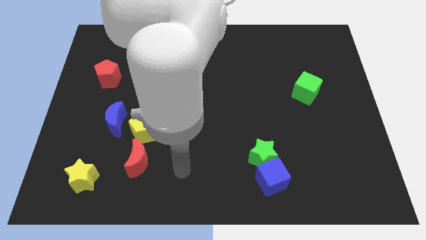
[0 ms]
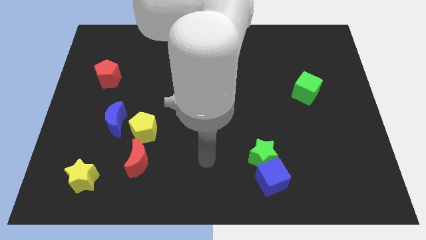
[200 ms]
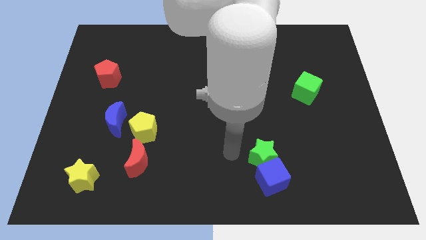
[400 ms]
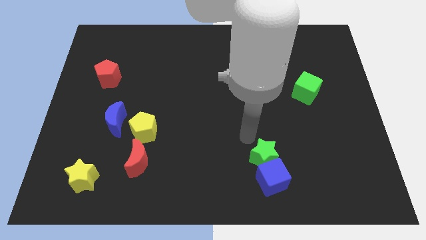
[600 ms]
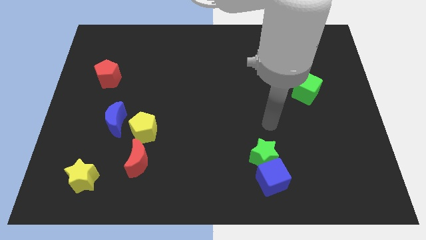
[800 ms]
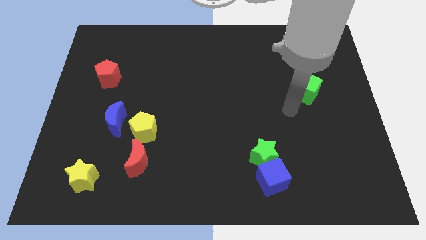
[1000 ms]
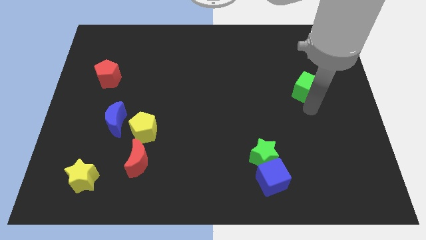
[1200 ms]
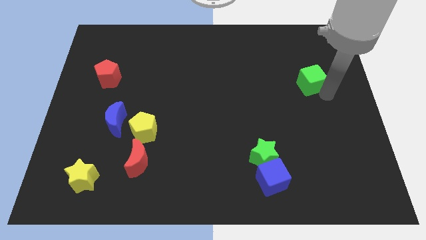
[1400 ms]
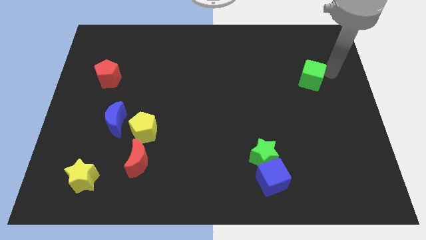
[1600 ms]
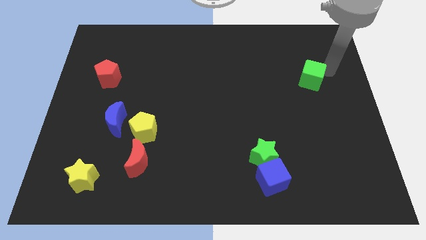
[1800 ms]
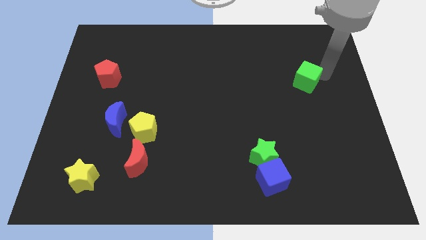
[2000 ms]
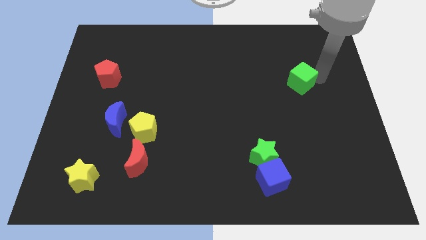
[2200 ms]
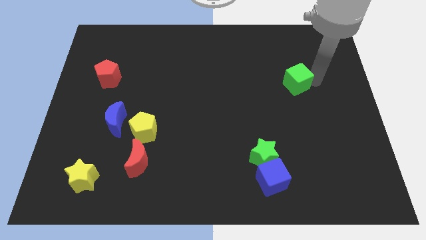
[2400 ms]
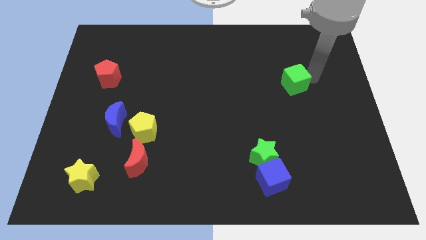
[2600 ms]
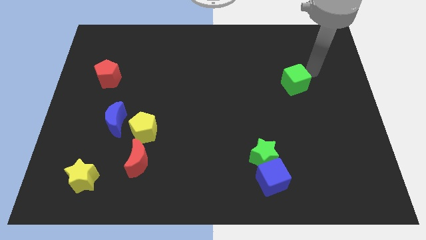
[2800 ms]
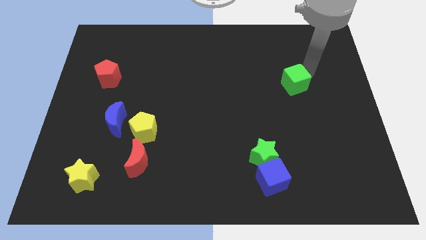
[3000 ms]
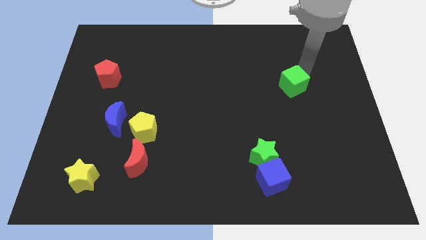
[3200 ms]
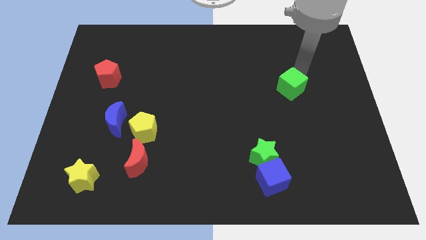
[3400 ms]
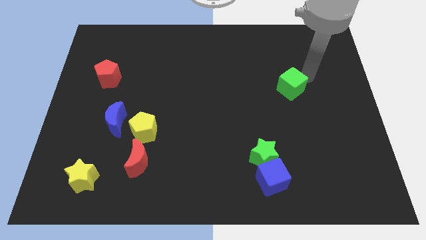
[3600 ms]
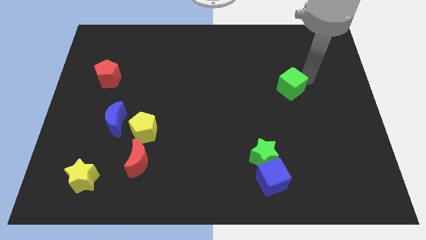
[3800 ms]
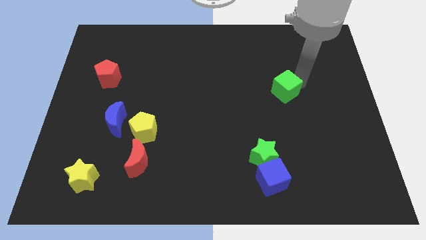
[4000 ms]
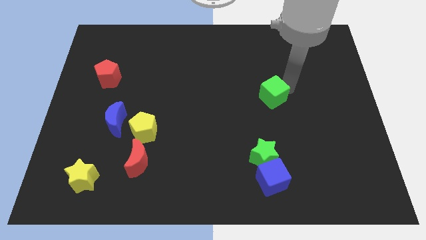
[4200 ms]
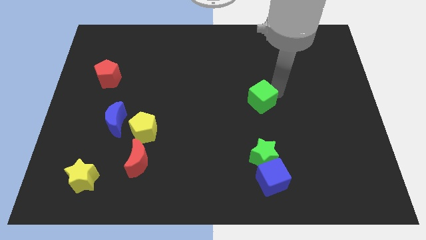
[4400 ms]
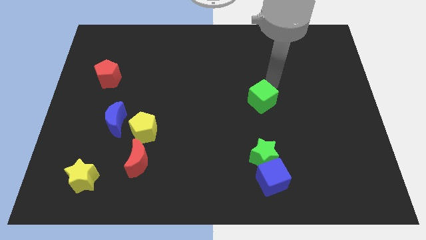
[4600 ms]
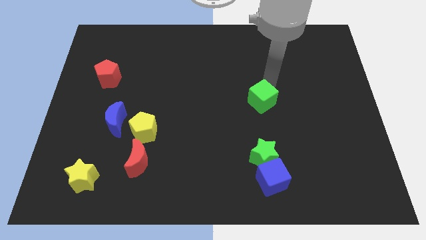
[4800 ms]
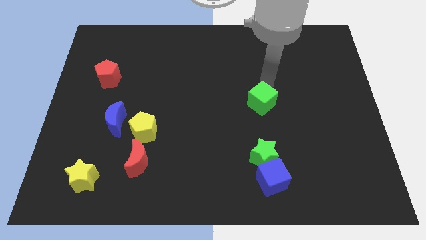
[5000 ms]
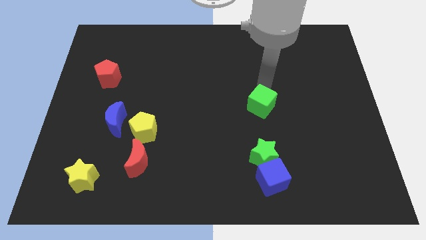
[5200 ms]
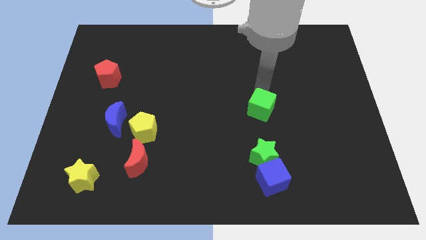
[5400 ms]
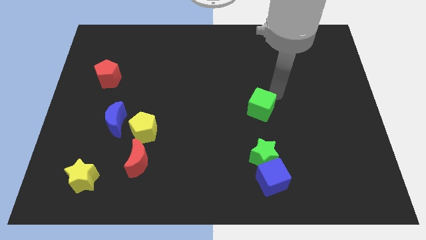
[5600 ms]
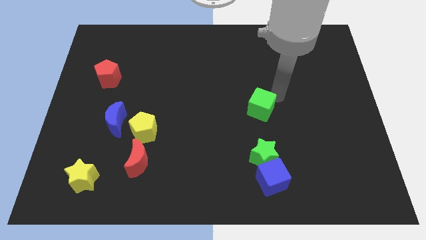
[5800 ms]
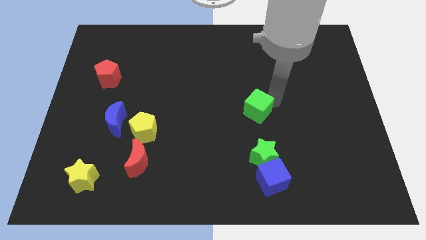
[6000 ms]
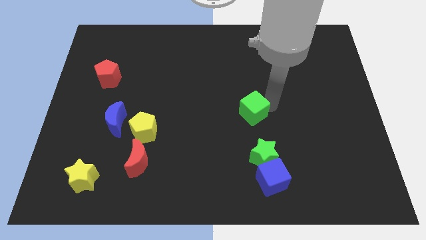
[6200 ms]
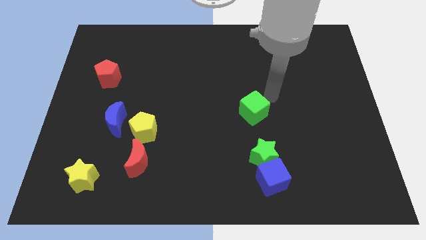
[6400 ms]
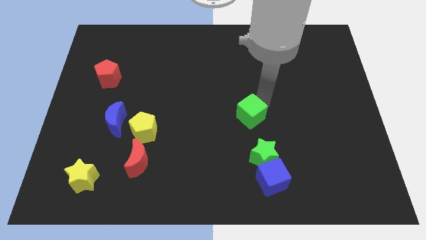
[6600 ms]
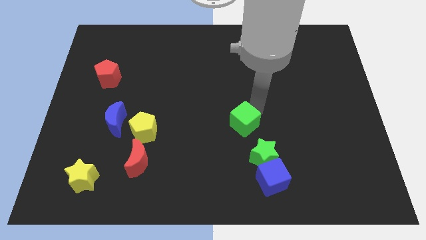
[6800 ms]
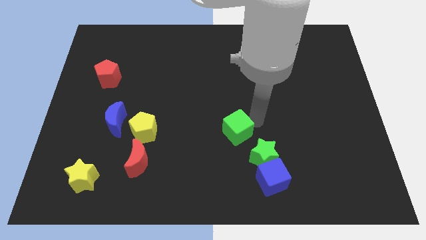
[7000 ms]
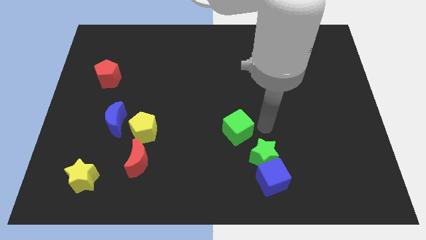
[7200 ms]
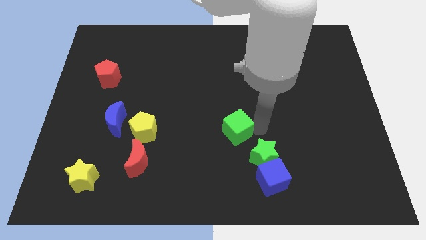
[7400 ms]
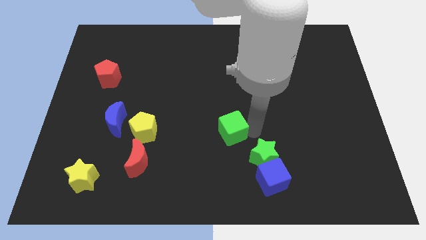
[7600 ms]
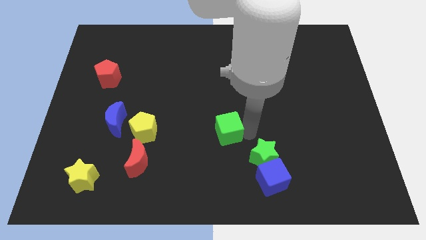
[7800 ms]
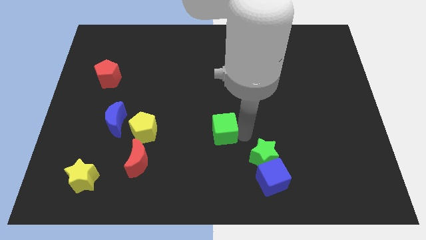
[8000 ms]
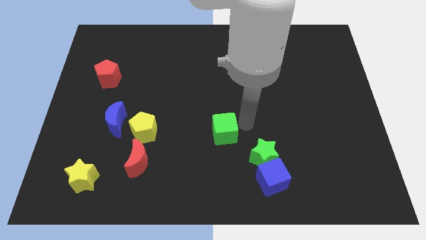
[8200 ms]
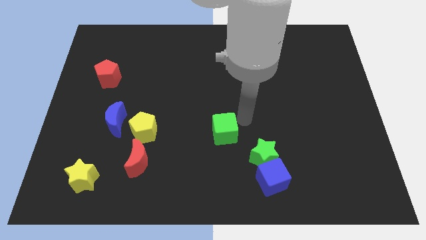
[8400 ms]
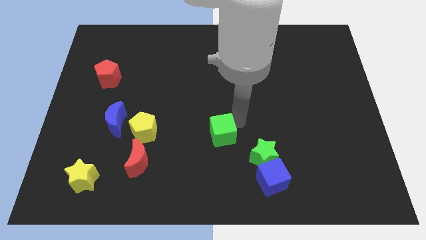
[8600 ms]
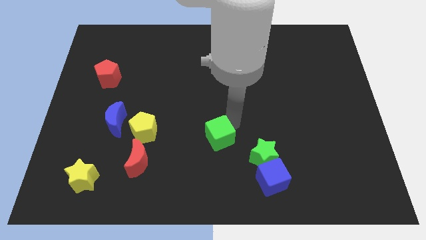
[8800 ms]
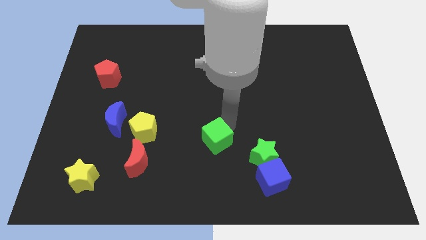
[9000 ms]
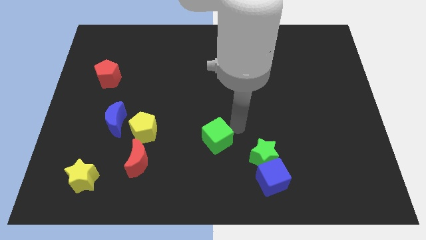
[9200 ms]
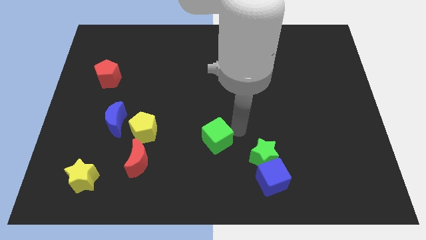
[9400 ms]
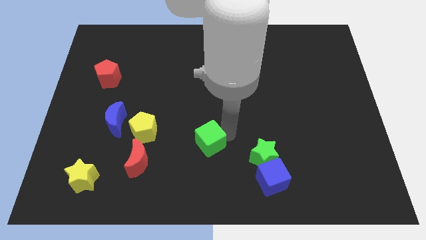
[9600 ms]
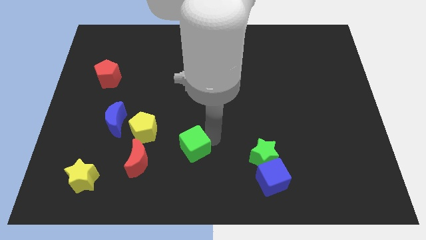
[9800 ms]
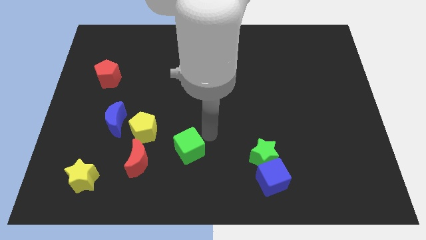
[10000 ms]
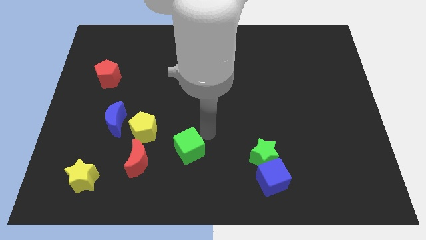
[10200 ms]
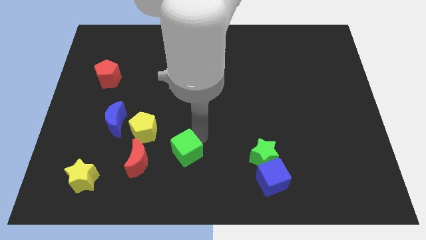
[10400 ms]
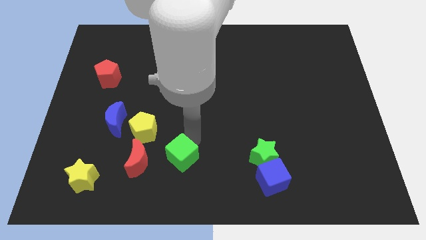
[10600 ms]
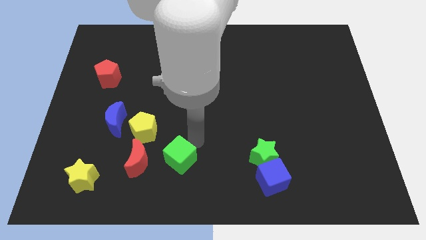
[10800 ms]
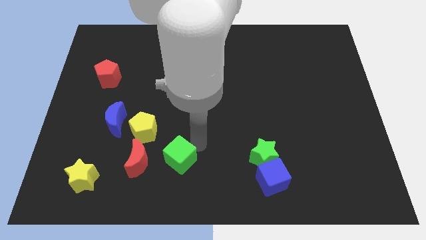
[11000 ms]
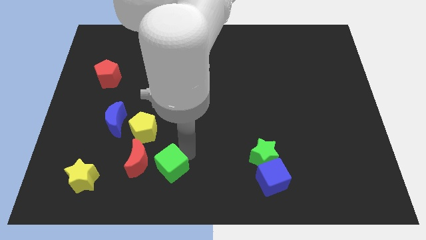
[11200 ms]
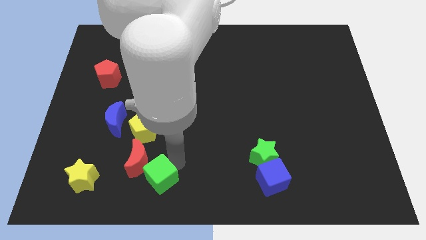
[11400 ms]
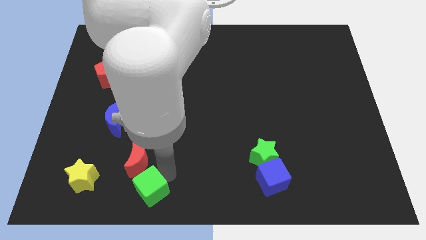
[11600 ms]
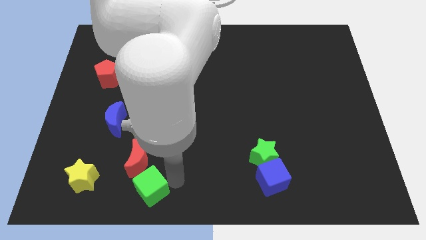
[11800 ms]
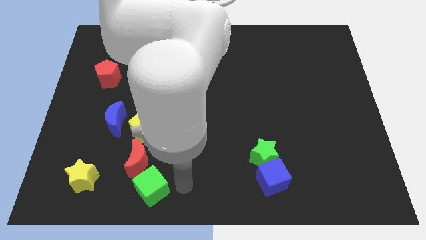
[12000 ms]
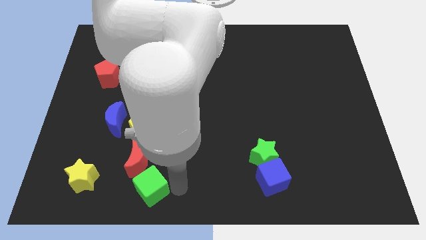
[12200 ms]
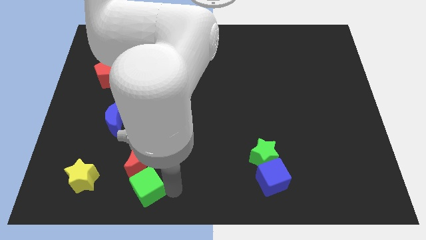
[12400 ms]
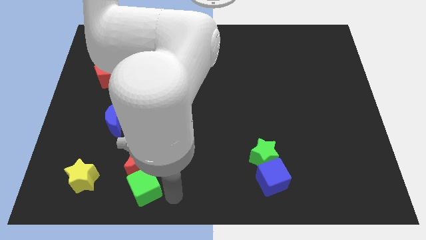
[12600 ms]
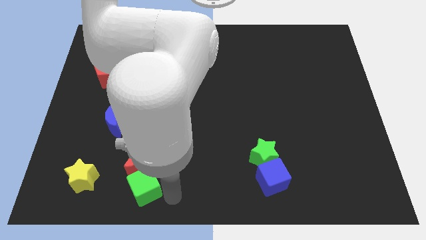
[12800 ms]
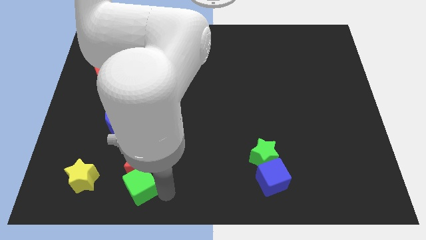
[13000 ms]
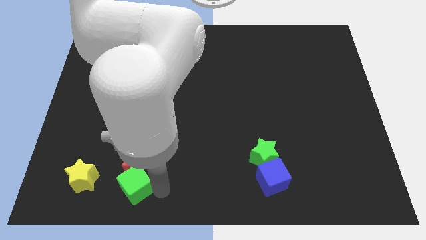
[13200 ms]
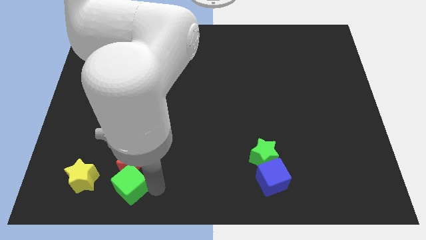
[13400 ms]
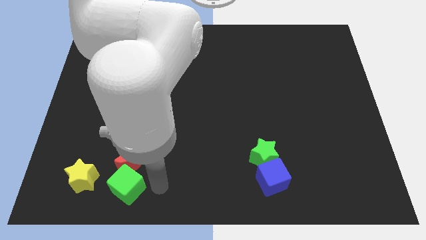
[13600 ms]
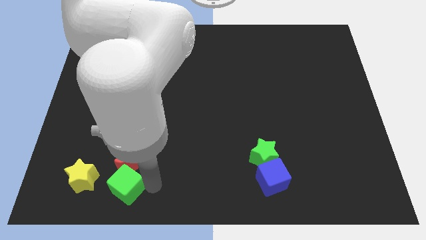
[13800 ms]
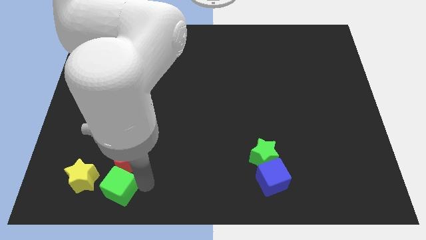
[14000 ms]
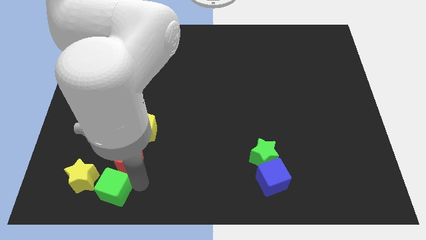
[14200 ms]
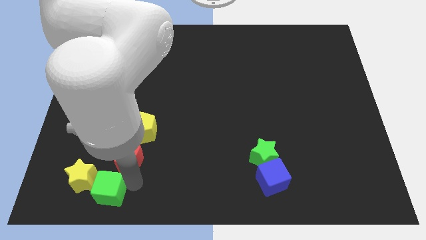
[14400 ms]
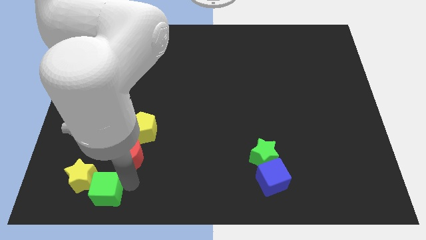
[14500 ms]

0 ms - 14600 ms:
move the green cube to the yellow star
